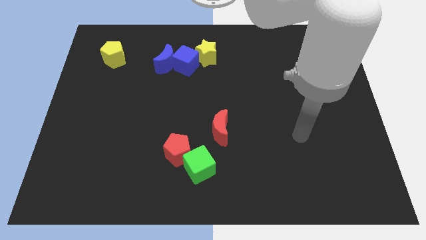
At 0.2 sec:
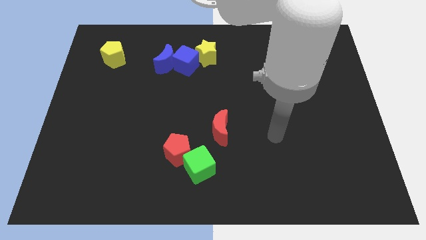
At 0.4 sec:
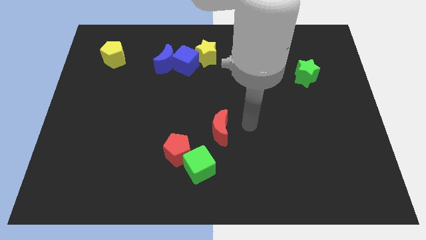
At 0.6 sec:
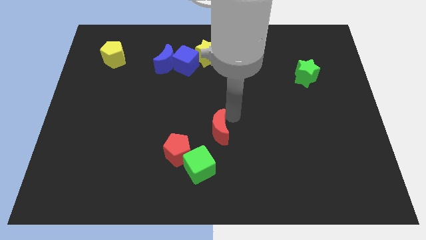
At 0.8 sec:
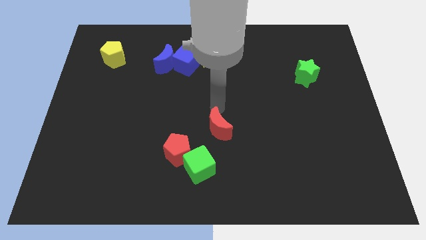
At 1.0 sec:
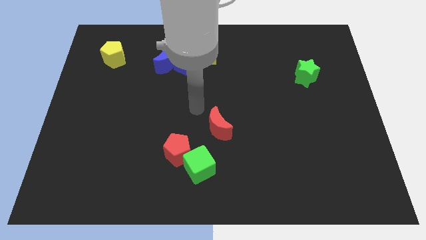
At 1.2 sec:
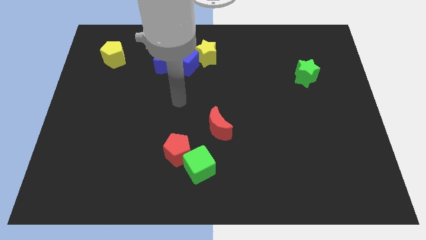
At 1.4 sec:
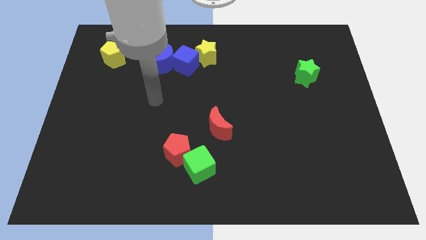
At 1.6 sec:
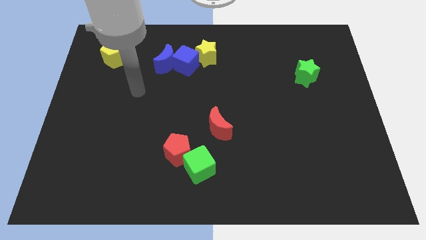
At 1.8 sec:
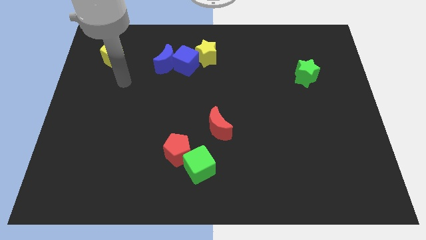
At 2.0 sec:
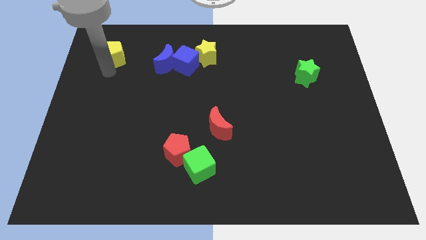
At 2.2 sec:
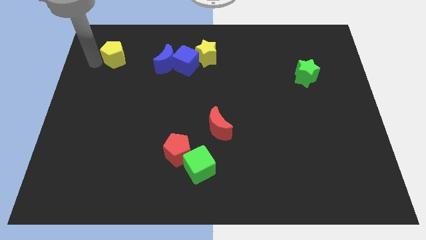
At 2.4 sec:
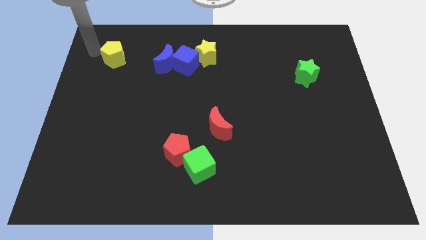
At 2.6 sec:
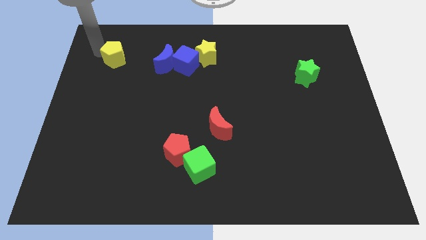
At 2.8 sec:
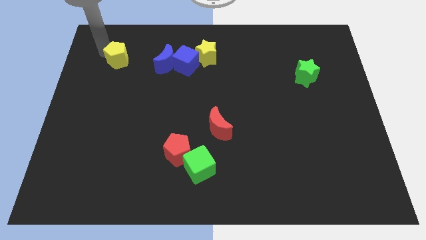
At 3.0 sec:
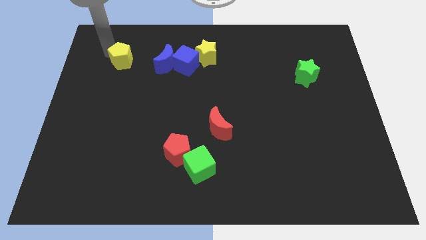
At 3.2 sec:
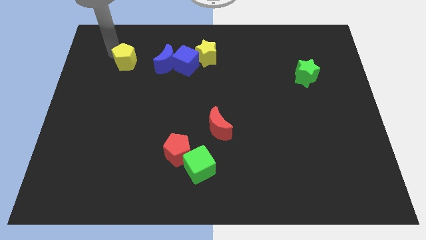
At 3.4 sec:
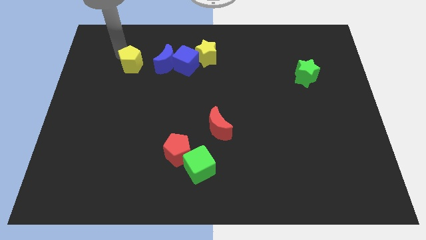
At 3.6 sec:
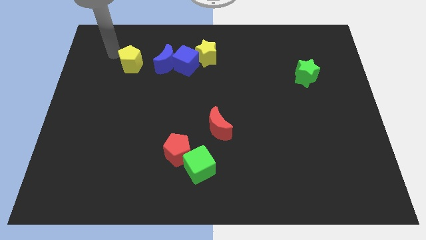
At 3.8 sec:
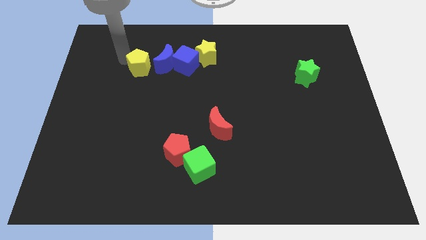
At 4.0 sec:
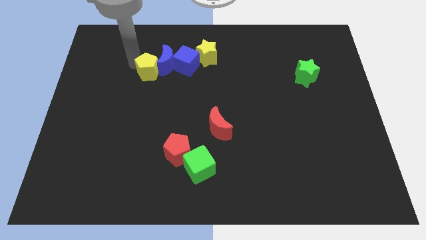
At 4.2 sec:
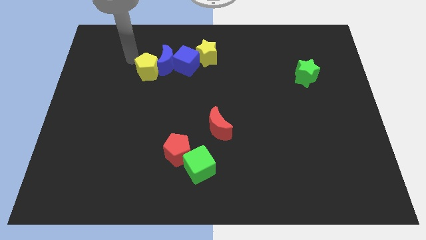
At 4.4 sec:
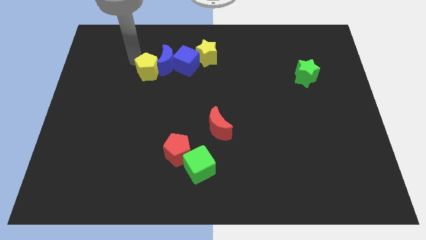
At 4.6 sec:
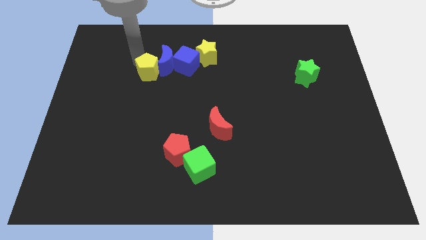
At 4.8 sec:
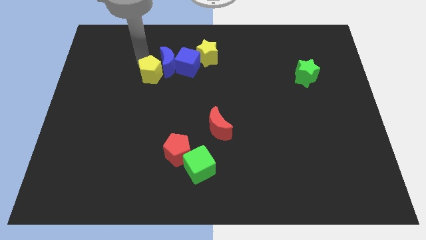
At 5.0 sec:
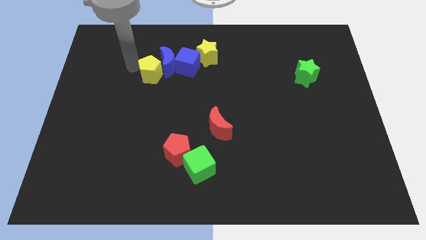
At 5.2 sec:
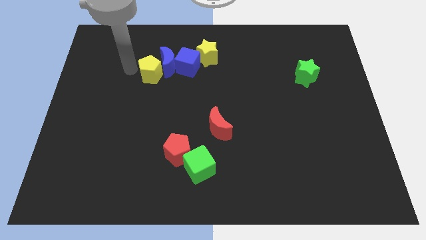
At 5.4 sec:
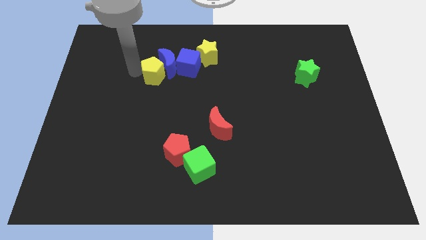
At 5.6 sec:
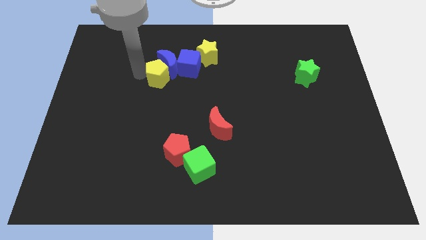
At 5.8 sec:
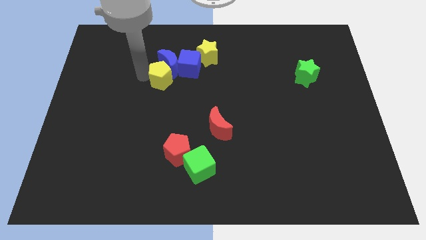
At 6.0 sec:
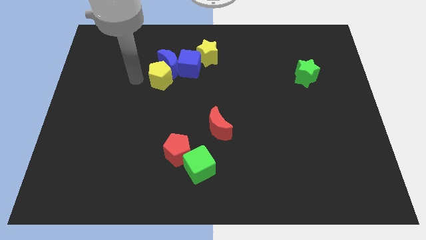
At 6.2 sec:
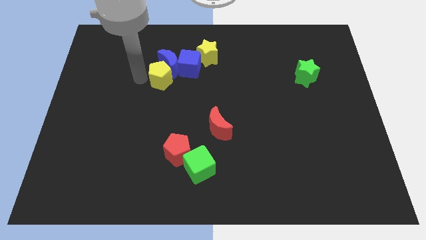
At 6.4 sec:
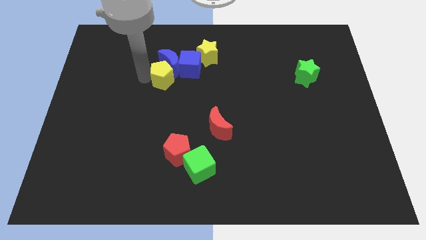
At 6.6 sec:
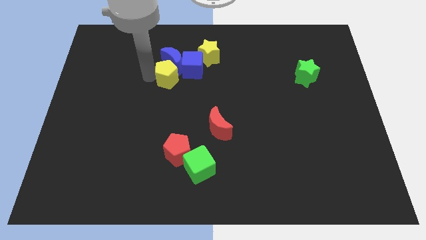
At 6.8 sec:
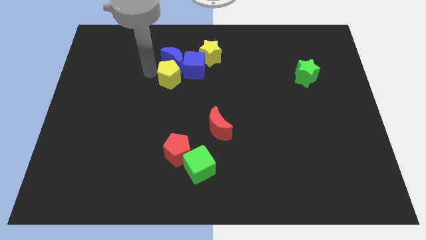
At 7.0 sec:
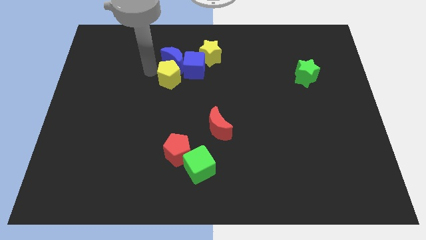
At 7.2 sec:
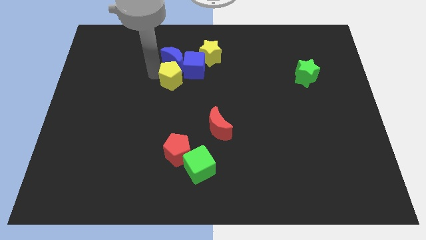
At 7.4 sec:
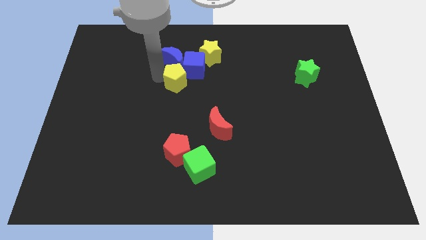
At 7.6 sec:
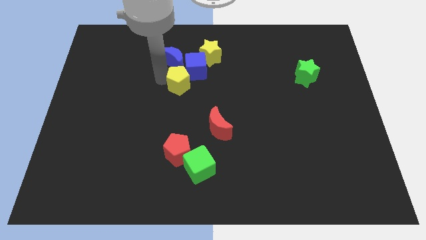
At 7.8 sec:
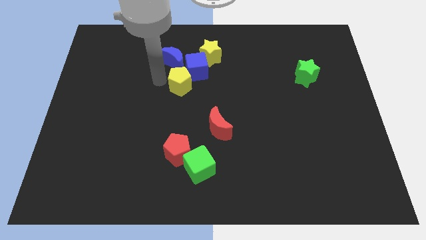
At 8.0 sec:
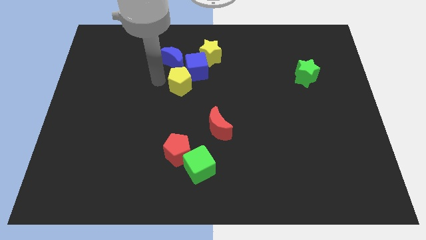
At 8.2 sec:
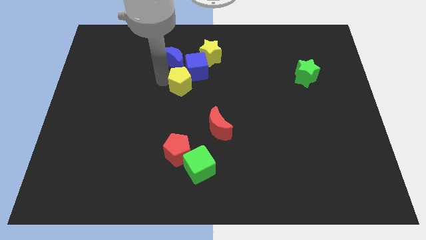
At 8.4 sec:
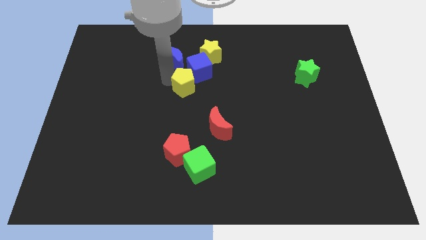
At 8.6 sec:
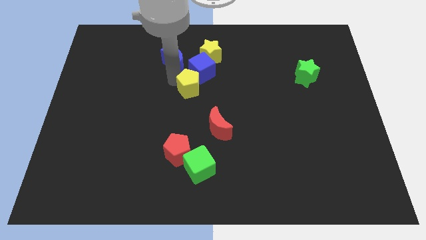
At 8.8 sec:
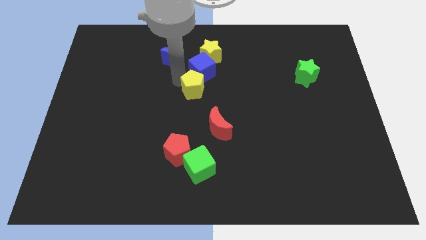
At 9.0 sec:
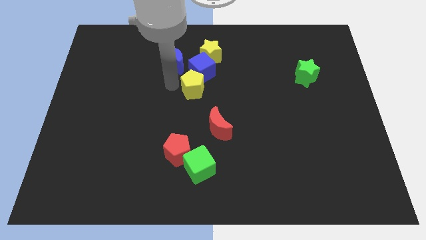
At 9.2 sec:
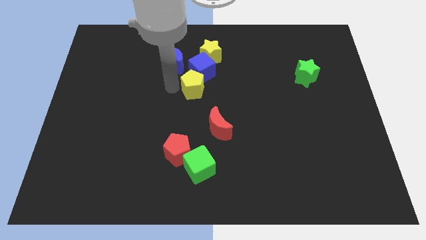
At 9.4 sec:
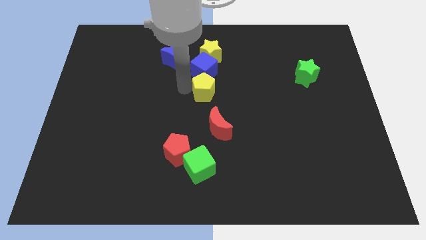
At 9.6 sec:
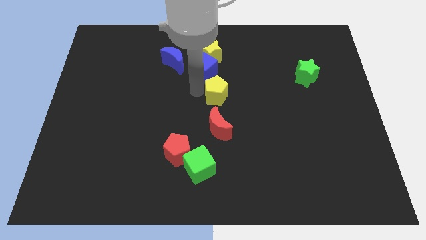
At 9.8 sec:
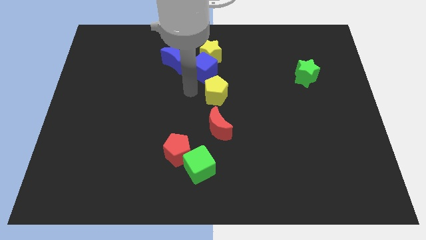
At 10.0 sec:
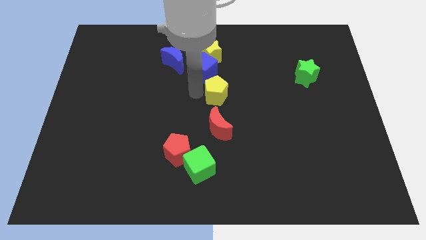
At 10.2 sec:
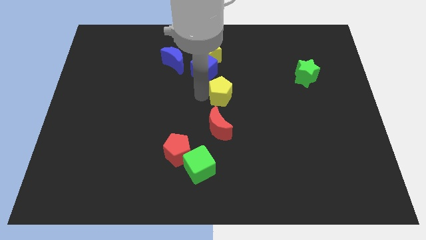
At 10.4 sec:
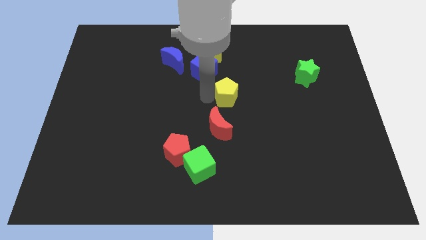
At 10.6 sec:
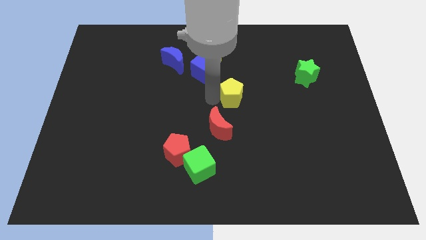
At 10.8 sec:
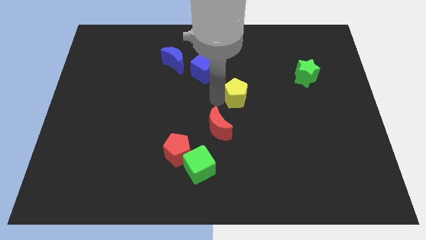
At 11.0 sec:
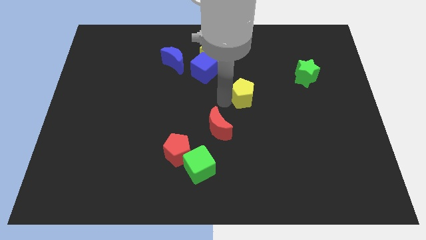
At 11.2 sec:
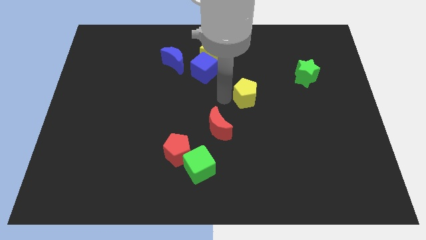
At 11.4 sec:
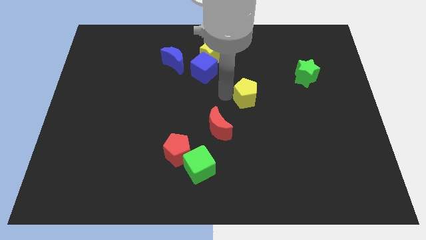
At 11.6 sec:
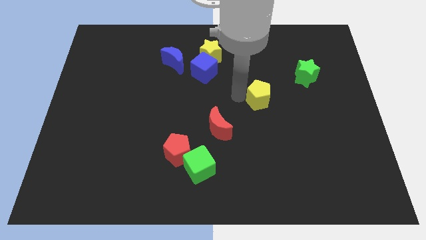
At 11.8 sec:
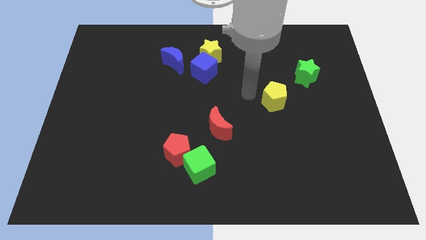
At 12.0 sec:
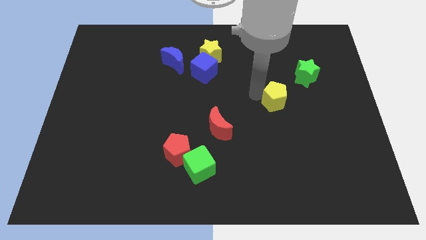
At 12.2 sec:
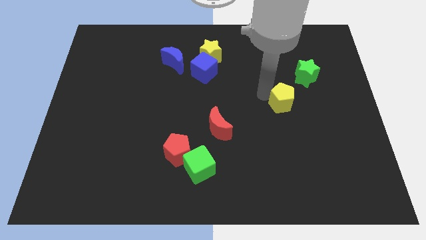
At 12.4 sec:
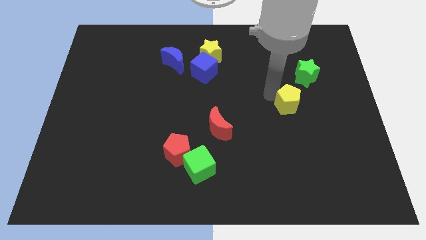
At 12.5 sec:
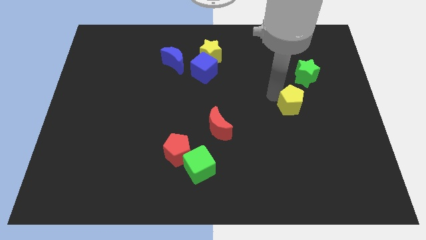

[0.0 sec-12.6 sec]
push the yellow pentagon to the bottom side of the green star

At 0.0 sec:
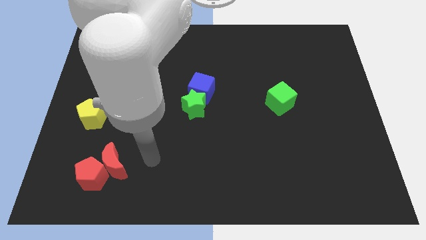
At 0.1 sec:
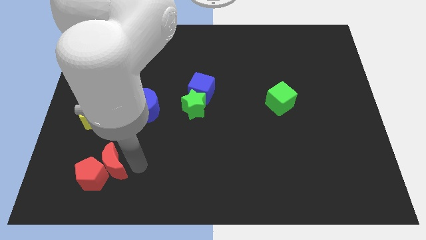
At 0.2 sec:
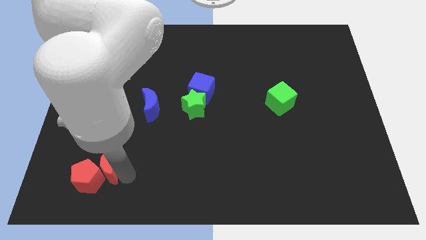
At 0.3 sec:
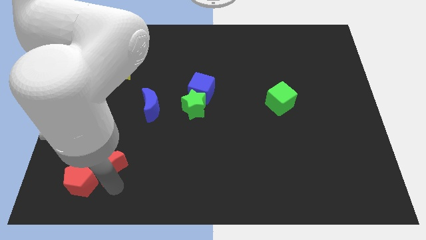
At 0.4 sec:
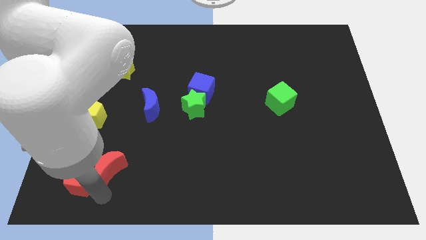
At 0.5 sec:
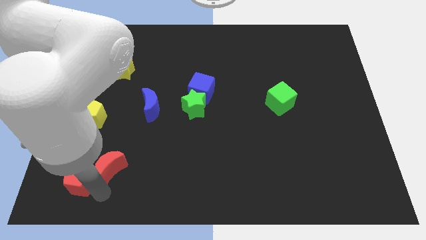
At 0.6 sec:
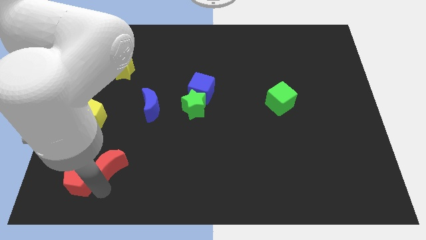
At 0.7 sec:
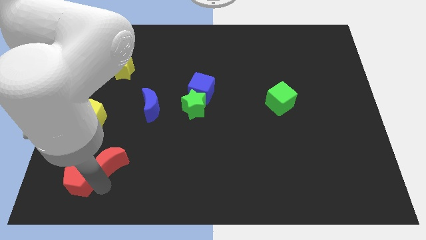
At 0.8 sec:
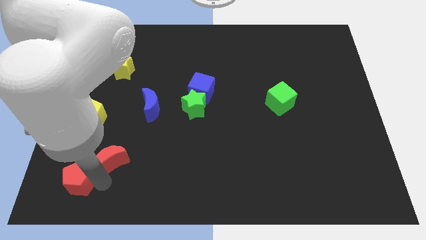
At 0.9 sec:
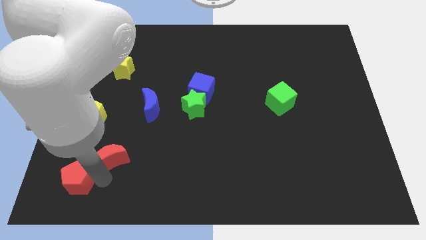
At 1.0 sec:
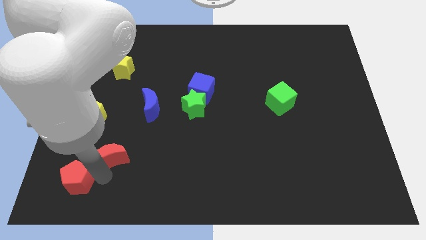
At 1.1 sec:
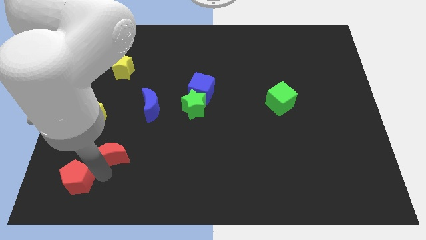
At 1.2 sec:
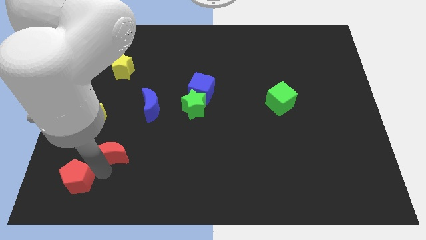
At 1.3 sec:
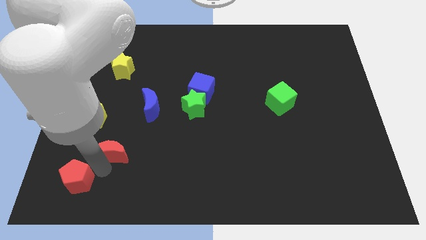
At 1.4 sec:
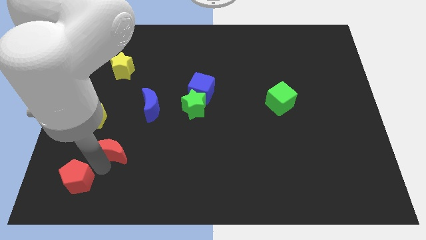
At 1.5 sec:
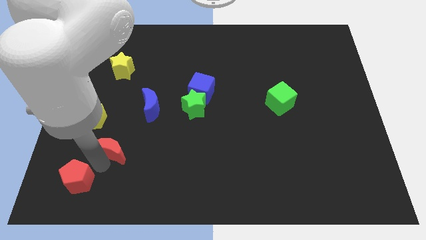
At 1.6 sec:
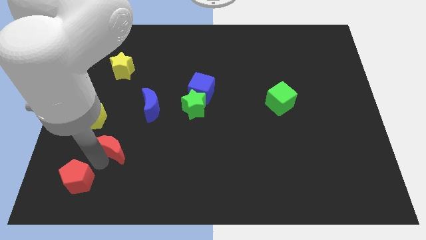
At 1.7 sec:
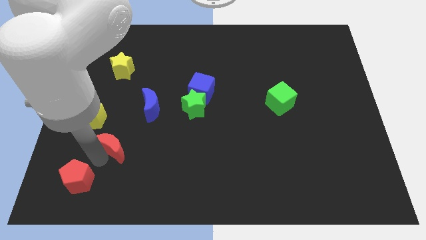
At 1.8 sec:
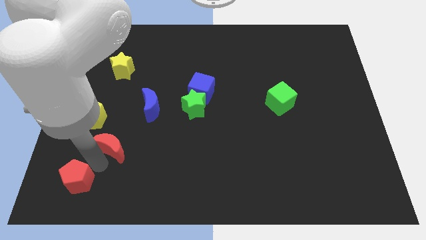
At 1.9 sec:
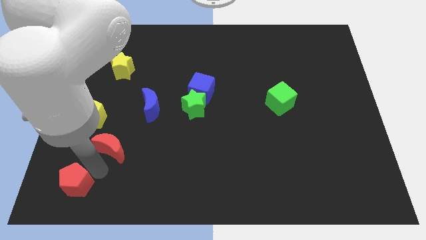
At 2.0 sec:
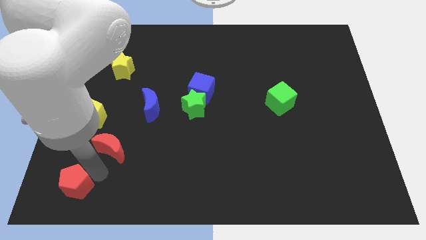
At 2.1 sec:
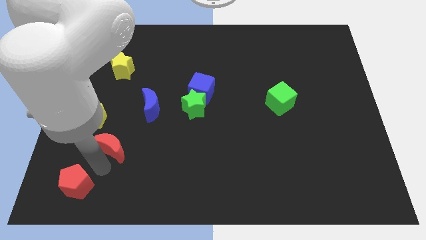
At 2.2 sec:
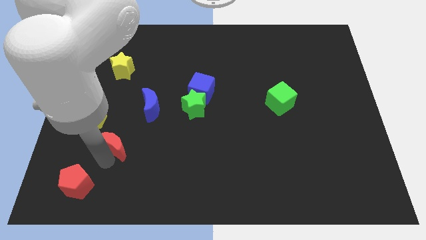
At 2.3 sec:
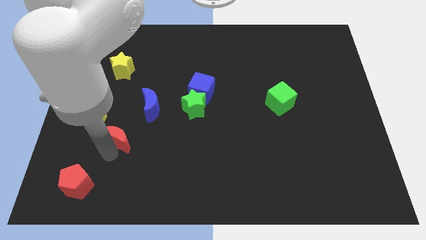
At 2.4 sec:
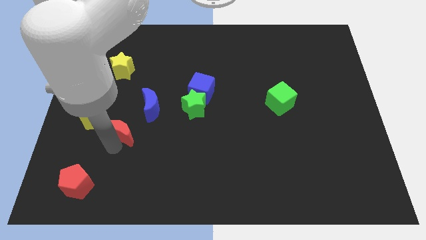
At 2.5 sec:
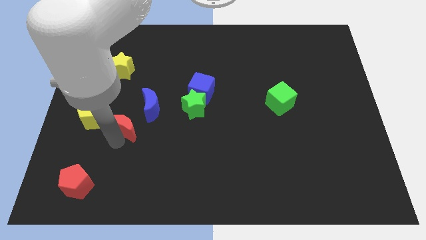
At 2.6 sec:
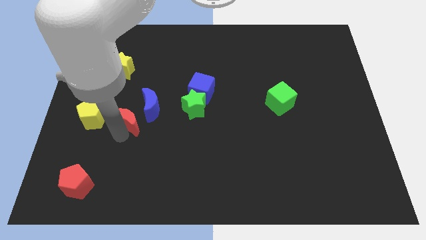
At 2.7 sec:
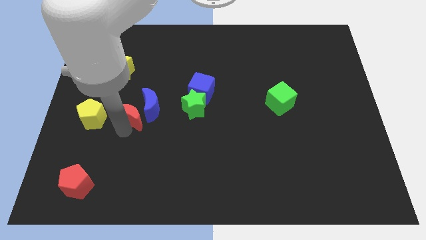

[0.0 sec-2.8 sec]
put the red moon to the left side of the green star
